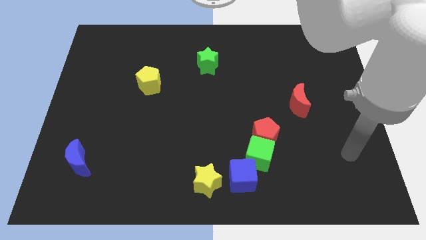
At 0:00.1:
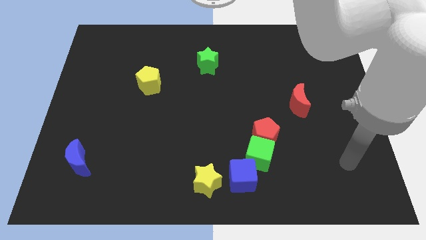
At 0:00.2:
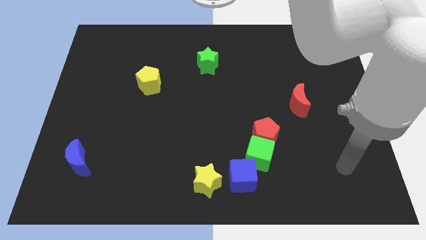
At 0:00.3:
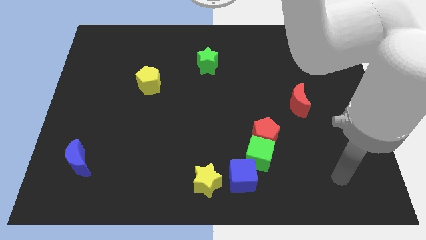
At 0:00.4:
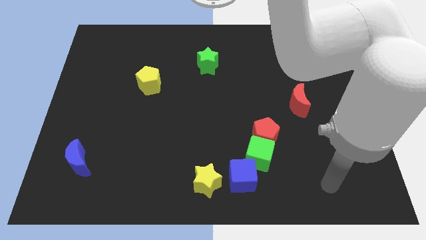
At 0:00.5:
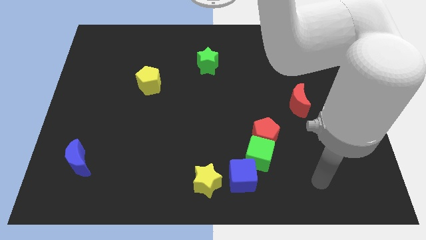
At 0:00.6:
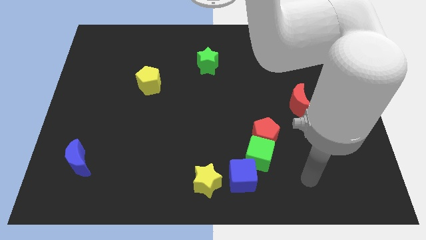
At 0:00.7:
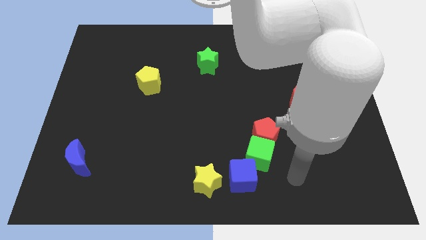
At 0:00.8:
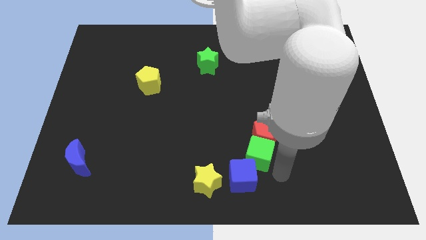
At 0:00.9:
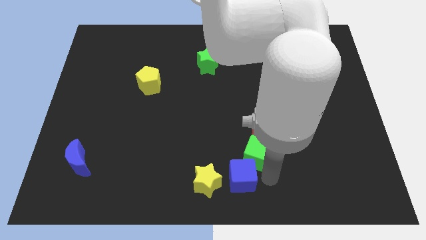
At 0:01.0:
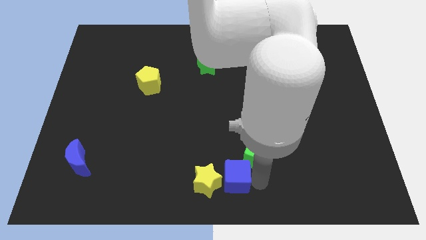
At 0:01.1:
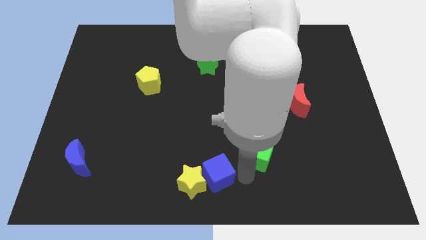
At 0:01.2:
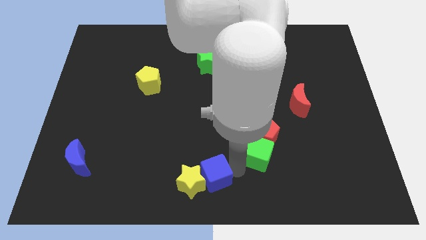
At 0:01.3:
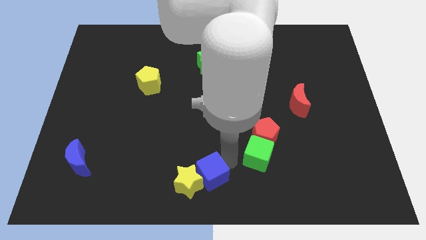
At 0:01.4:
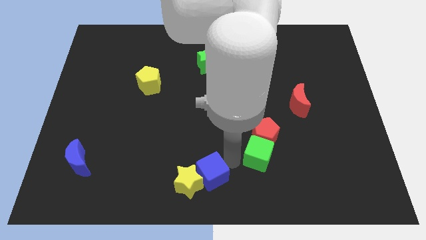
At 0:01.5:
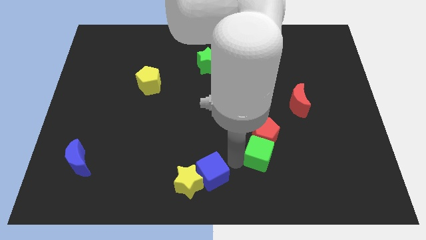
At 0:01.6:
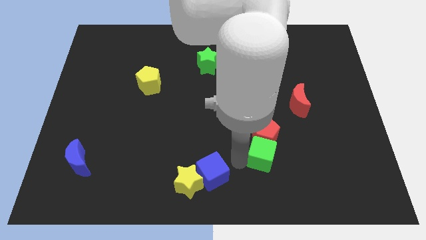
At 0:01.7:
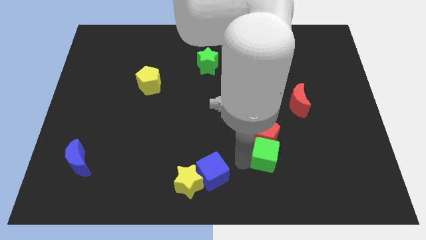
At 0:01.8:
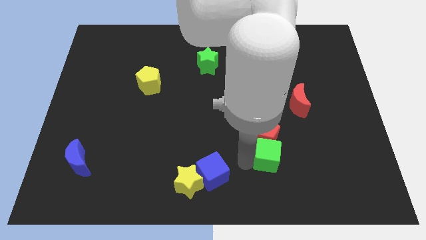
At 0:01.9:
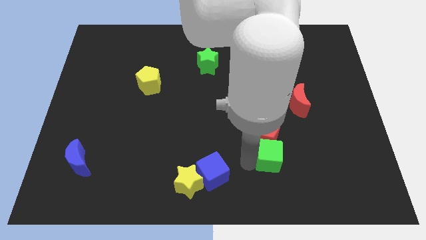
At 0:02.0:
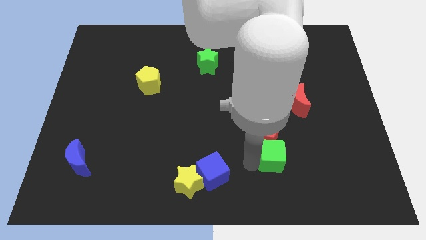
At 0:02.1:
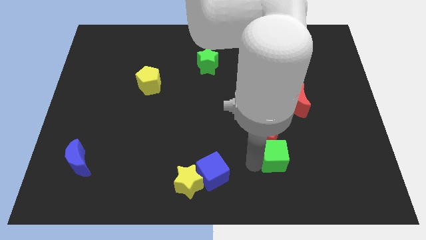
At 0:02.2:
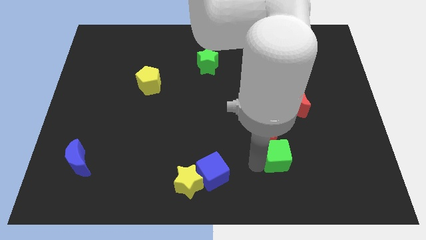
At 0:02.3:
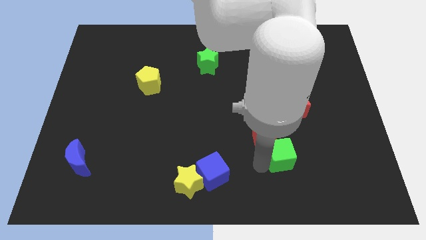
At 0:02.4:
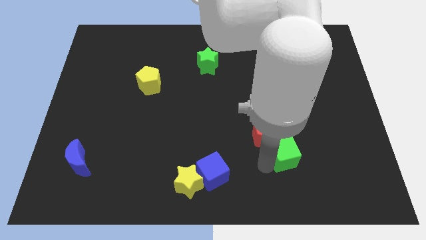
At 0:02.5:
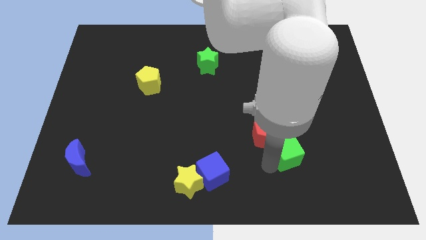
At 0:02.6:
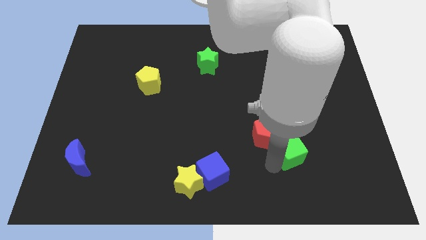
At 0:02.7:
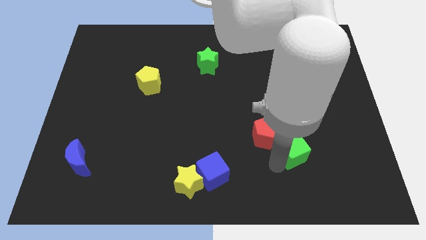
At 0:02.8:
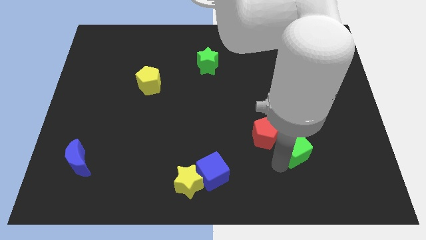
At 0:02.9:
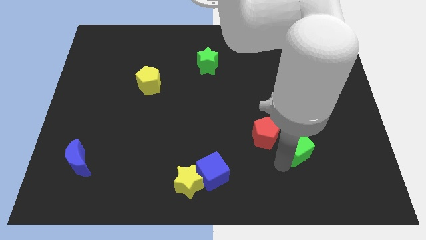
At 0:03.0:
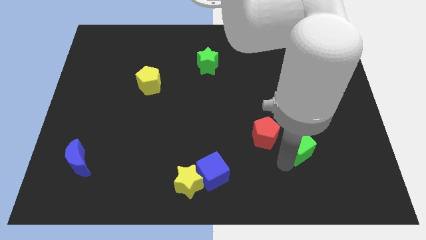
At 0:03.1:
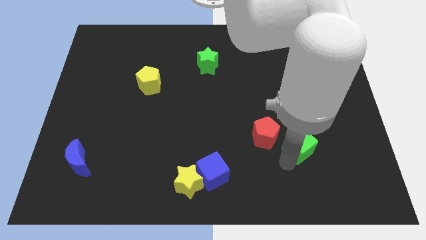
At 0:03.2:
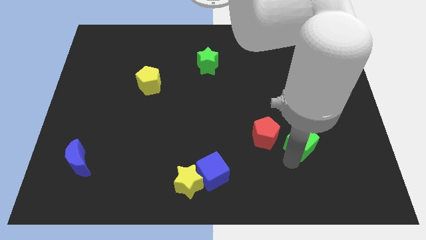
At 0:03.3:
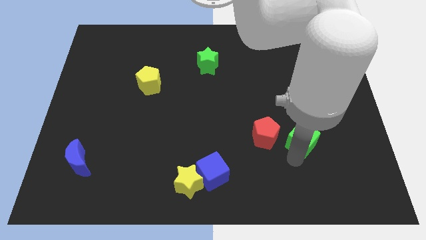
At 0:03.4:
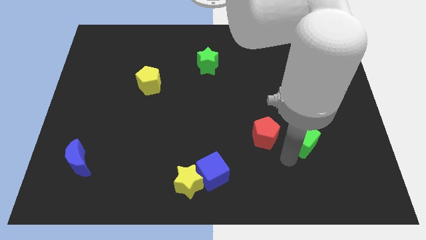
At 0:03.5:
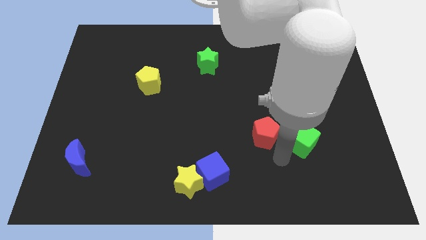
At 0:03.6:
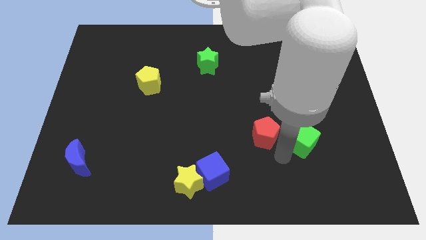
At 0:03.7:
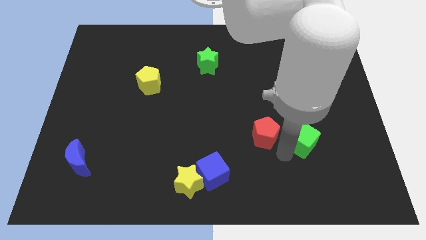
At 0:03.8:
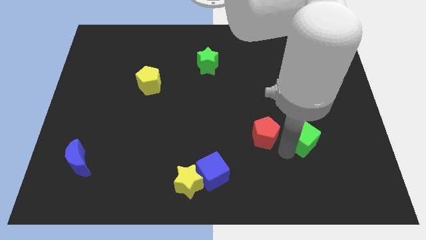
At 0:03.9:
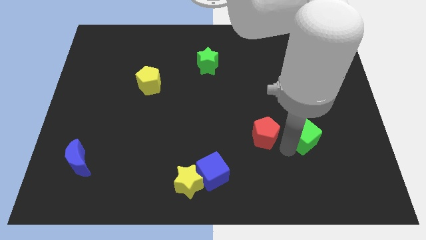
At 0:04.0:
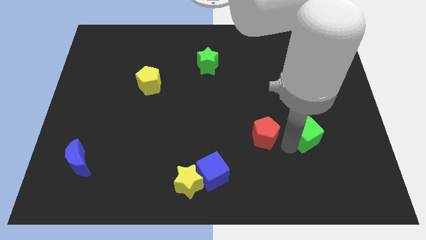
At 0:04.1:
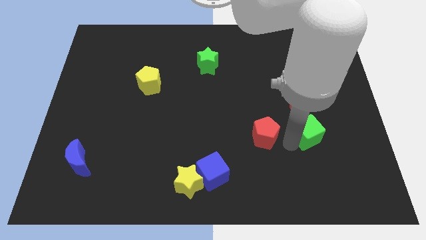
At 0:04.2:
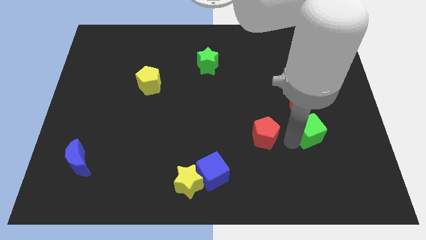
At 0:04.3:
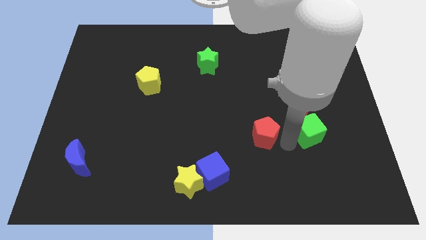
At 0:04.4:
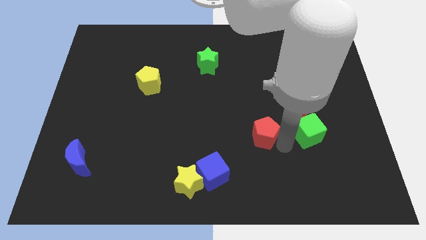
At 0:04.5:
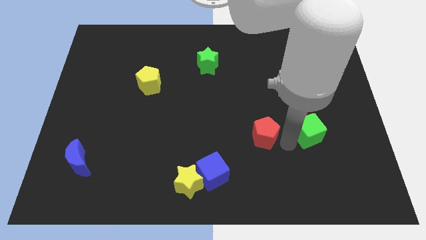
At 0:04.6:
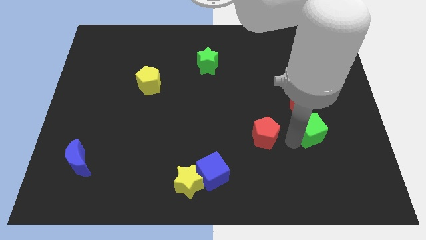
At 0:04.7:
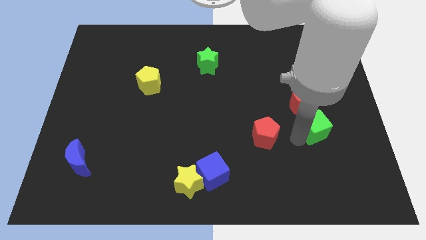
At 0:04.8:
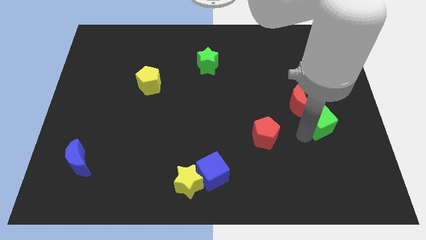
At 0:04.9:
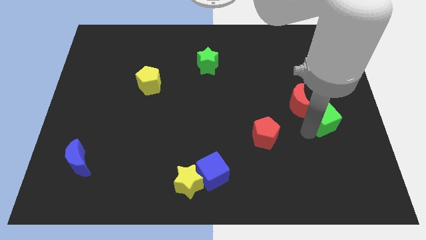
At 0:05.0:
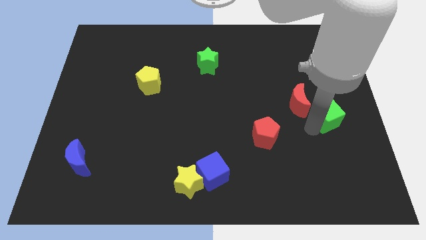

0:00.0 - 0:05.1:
slide the green cube to the right side
